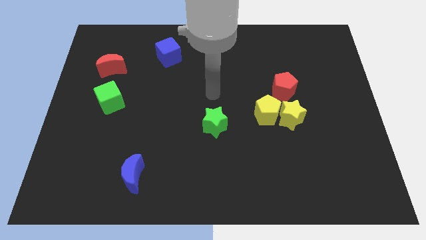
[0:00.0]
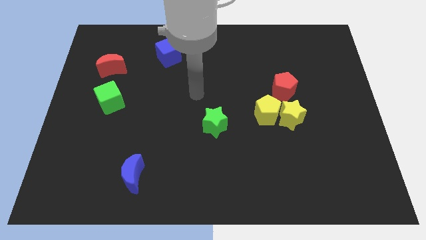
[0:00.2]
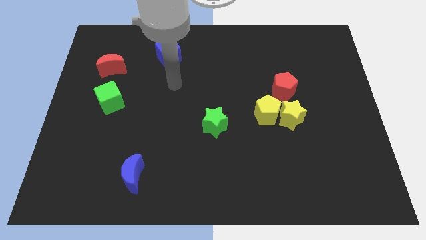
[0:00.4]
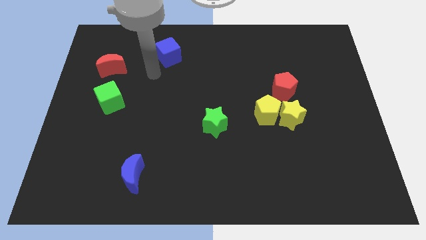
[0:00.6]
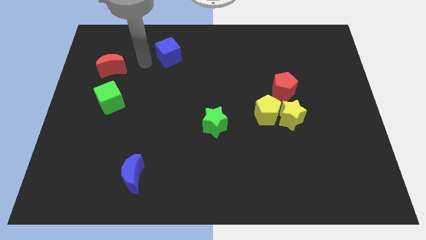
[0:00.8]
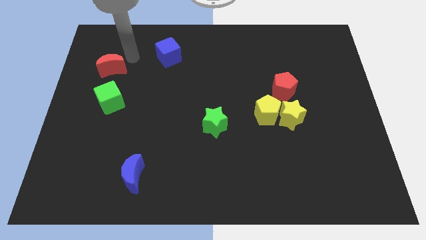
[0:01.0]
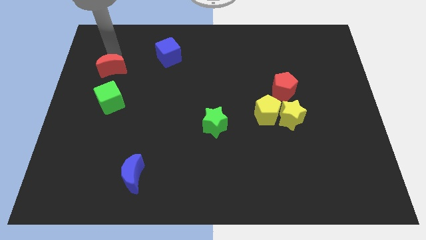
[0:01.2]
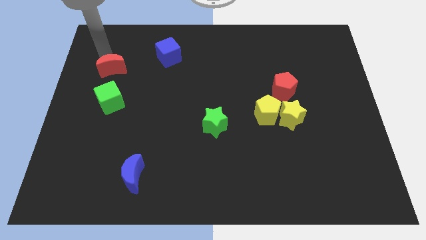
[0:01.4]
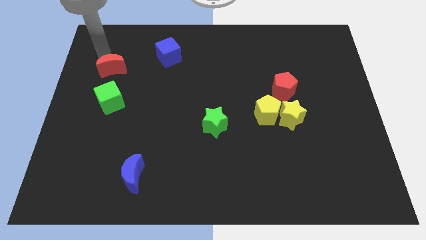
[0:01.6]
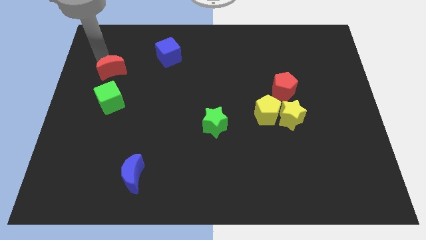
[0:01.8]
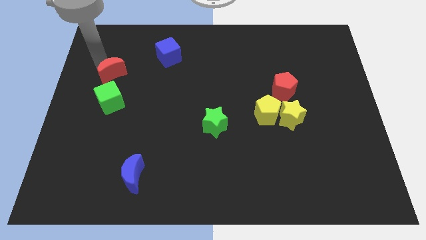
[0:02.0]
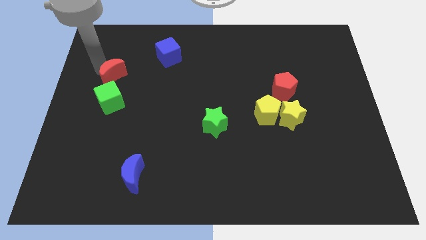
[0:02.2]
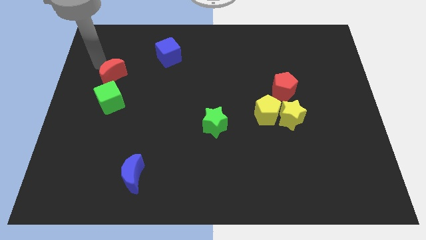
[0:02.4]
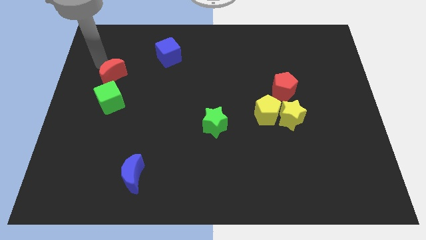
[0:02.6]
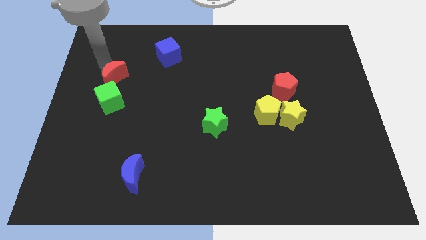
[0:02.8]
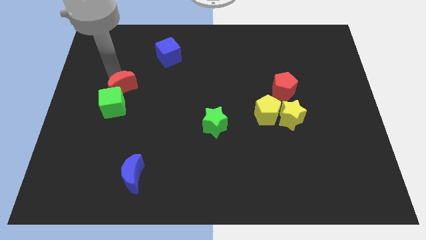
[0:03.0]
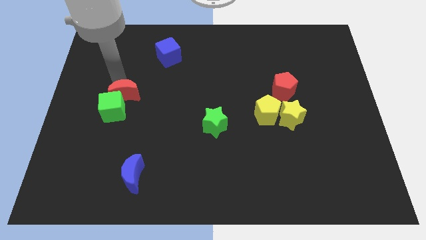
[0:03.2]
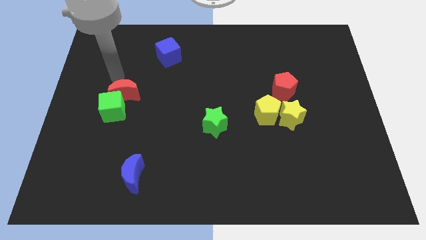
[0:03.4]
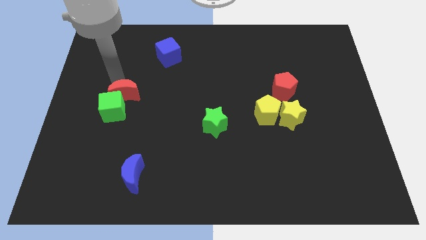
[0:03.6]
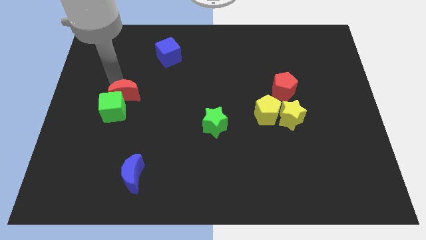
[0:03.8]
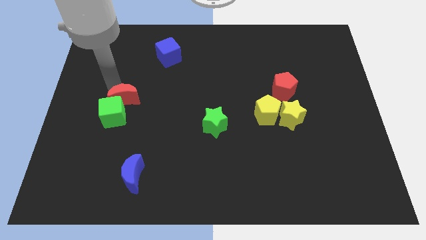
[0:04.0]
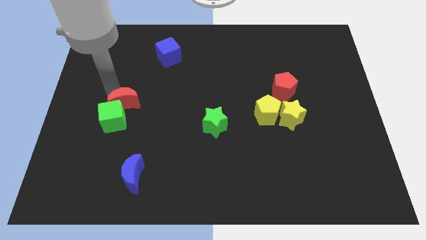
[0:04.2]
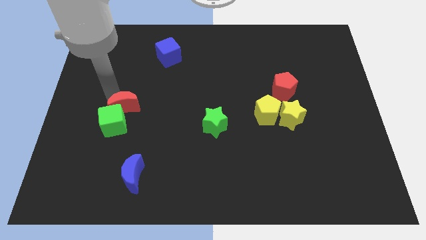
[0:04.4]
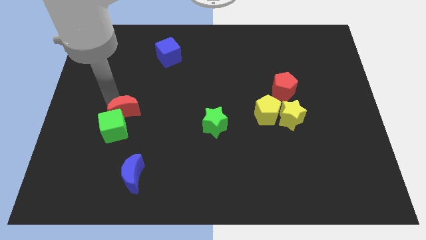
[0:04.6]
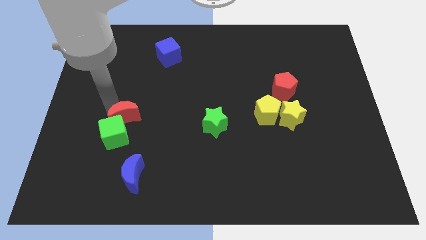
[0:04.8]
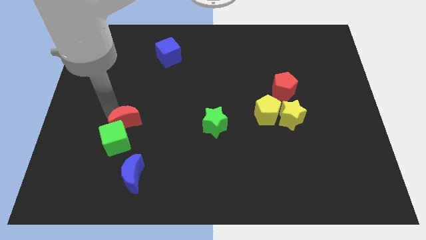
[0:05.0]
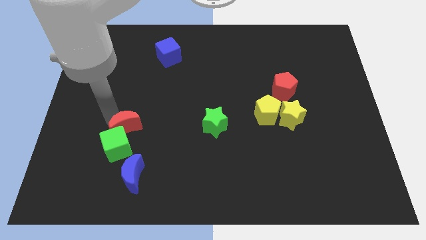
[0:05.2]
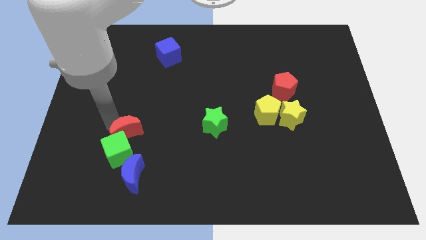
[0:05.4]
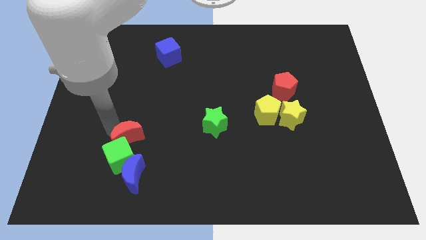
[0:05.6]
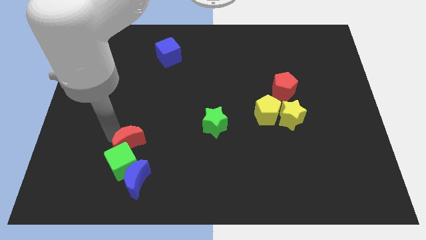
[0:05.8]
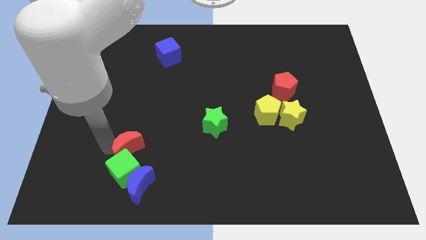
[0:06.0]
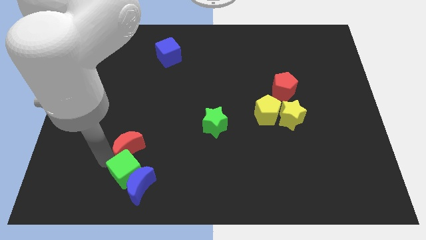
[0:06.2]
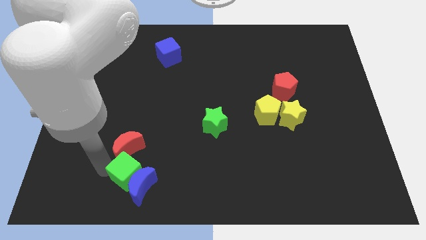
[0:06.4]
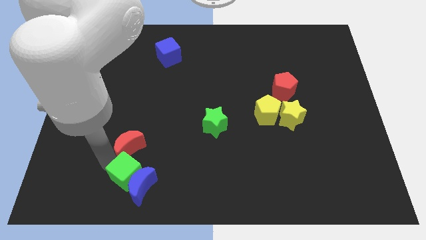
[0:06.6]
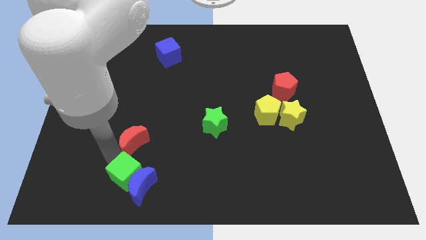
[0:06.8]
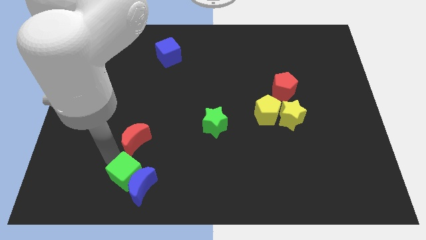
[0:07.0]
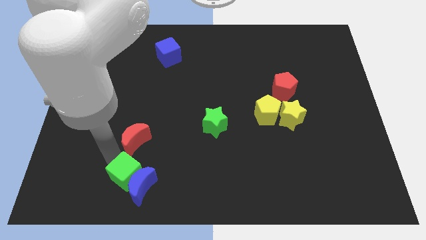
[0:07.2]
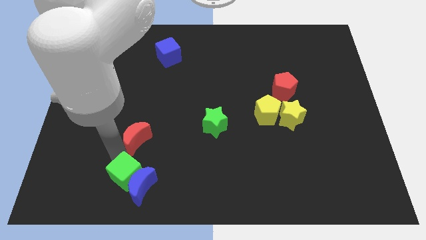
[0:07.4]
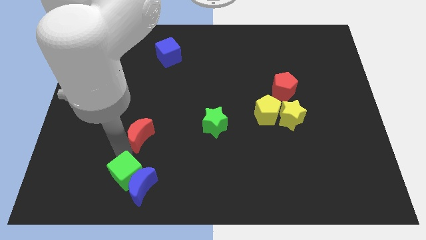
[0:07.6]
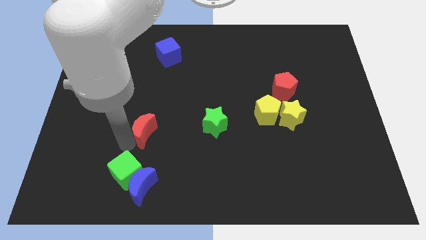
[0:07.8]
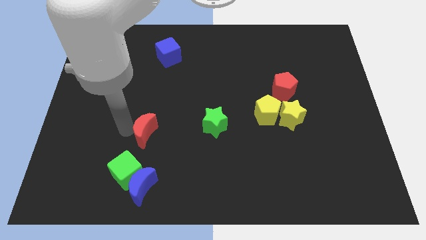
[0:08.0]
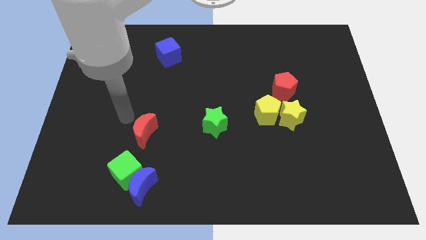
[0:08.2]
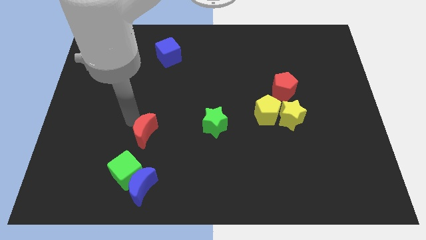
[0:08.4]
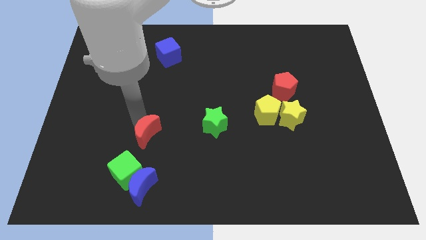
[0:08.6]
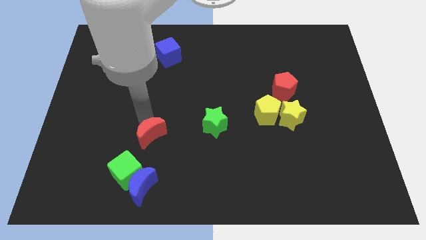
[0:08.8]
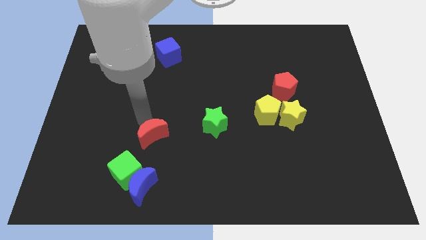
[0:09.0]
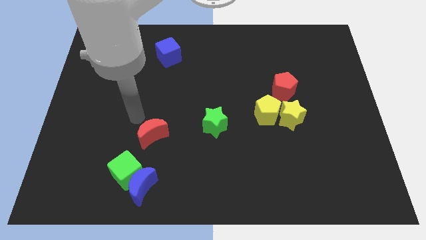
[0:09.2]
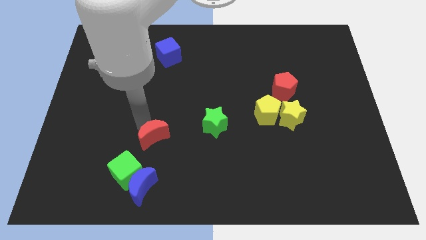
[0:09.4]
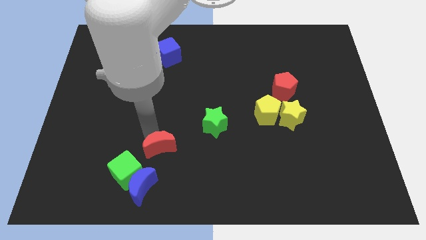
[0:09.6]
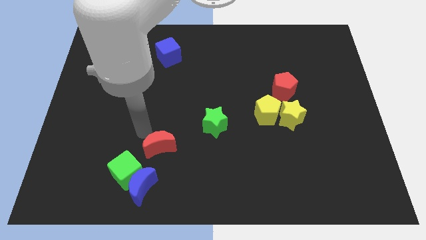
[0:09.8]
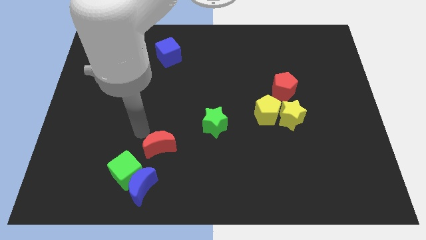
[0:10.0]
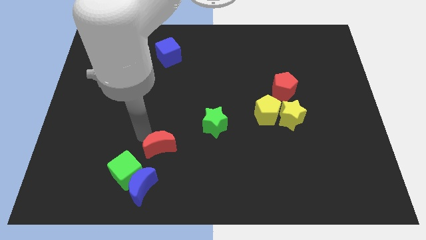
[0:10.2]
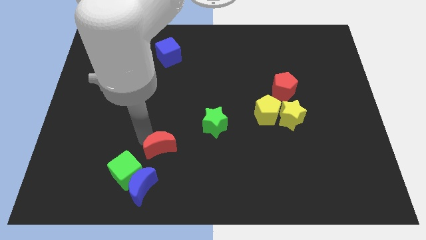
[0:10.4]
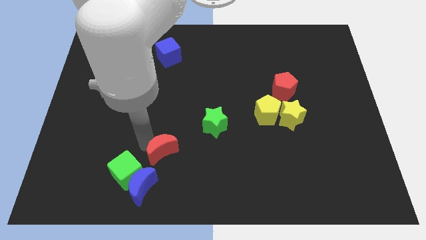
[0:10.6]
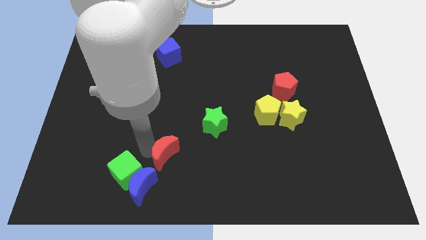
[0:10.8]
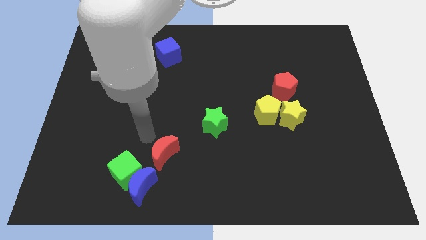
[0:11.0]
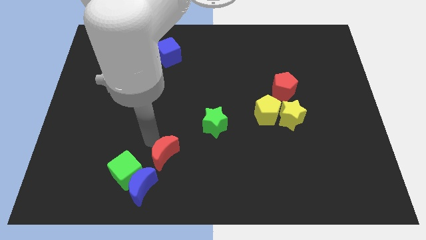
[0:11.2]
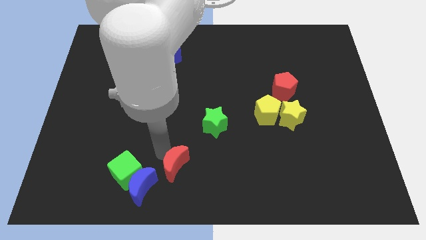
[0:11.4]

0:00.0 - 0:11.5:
push the red moon right of the blue moon

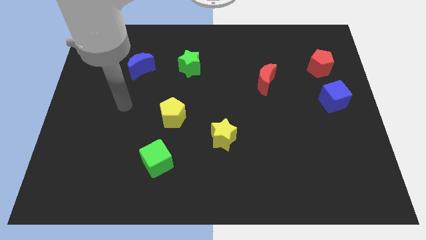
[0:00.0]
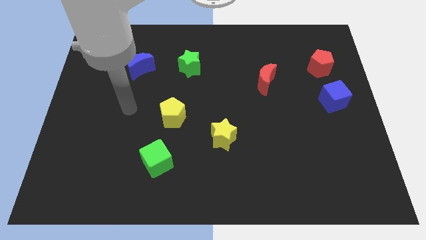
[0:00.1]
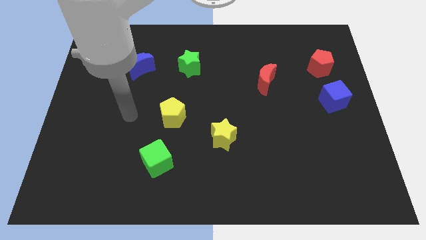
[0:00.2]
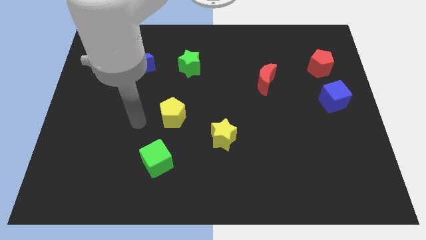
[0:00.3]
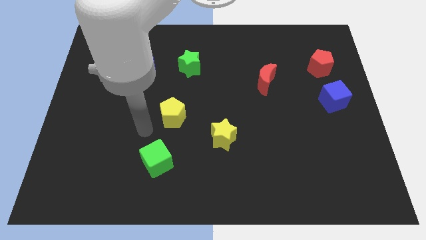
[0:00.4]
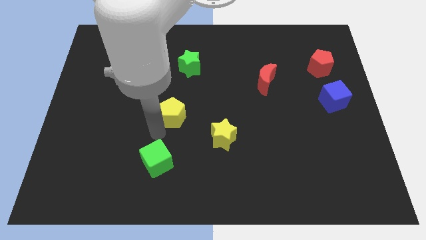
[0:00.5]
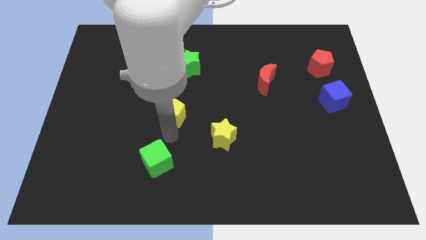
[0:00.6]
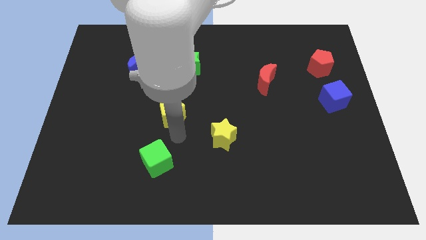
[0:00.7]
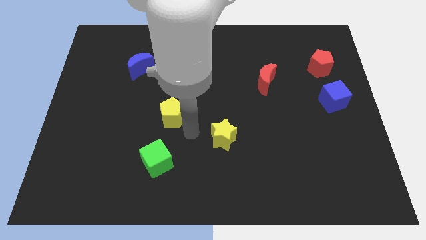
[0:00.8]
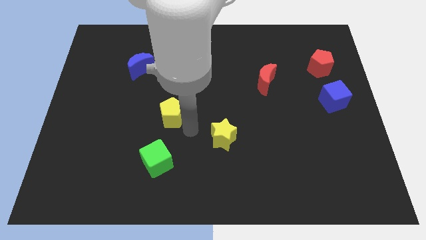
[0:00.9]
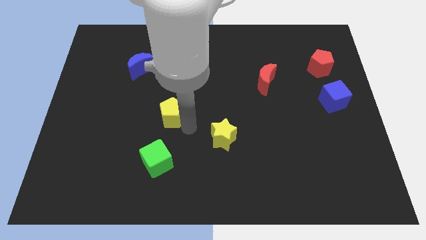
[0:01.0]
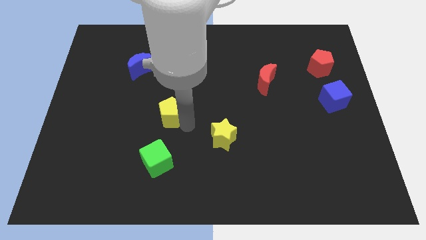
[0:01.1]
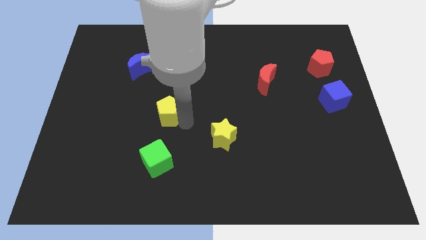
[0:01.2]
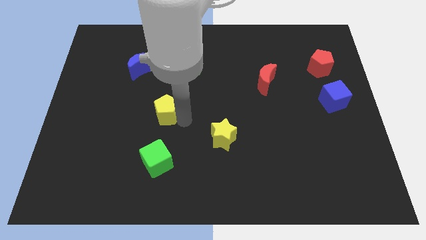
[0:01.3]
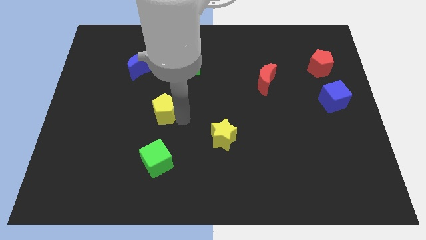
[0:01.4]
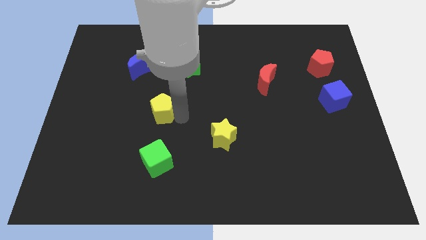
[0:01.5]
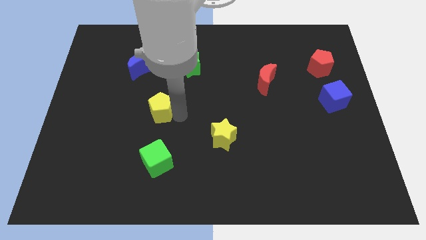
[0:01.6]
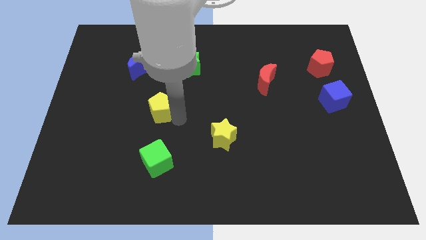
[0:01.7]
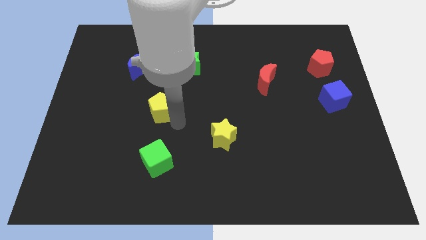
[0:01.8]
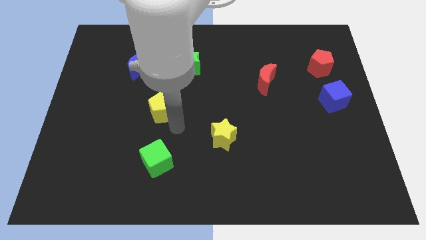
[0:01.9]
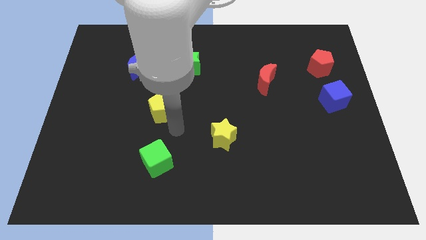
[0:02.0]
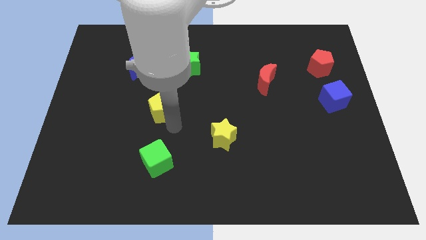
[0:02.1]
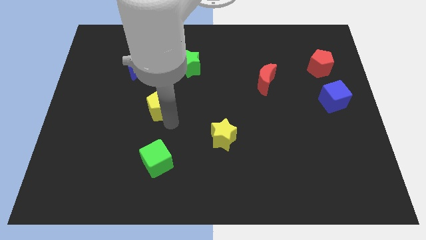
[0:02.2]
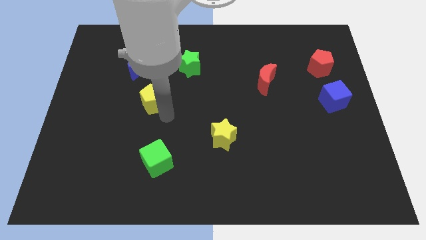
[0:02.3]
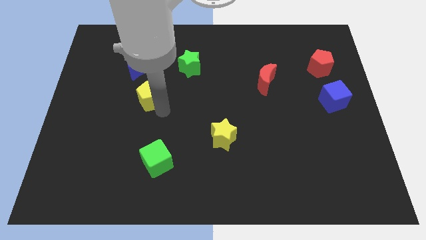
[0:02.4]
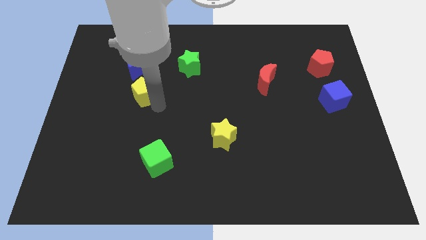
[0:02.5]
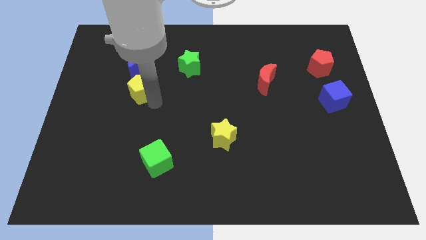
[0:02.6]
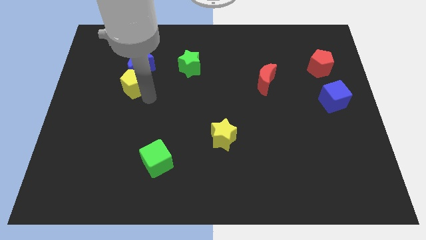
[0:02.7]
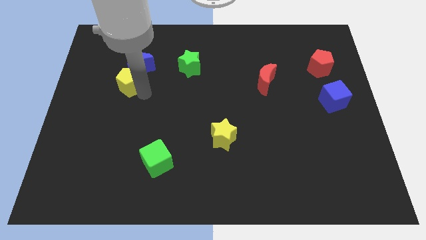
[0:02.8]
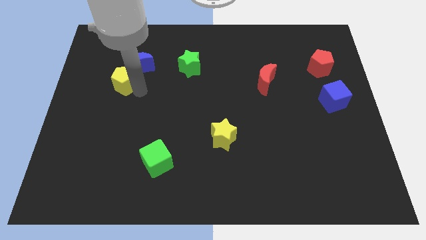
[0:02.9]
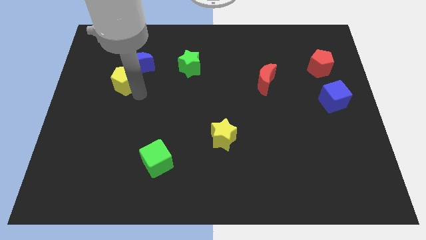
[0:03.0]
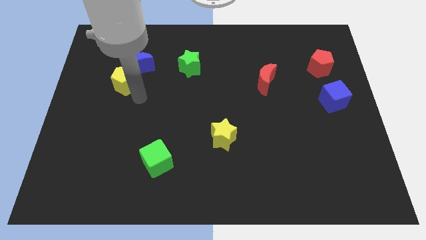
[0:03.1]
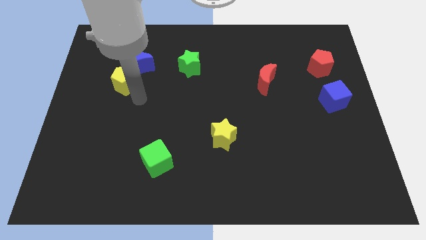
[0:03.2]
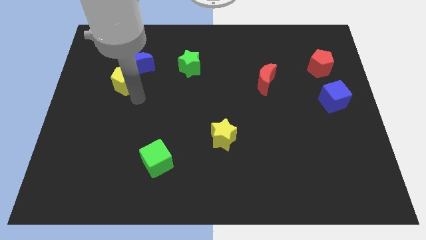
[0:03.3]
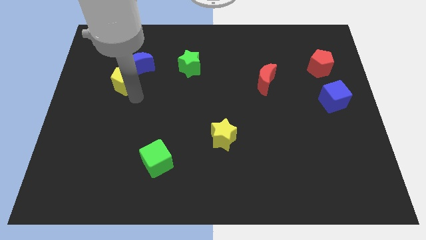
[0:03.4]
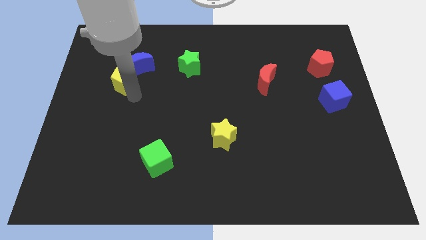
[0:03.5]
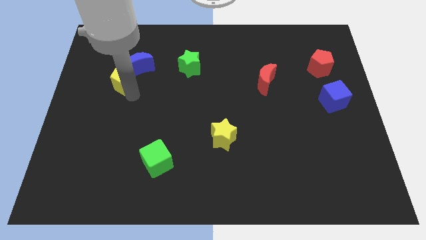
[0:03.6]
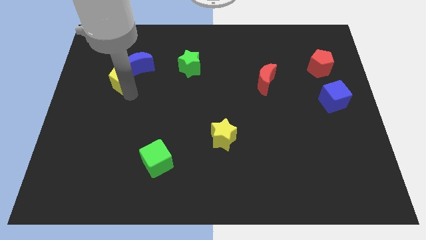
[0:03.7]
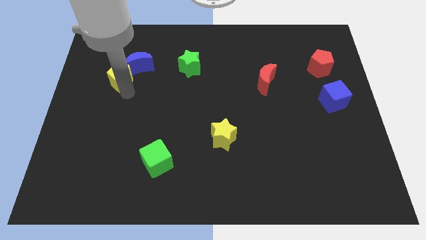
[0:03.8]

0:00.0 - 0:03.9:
push the yellow pentagon to the left of the blue moon
